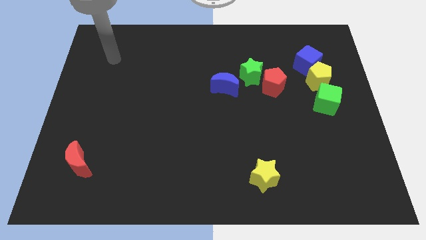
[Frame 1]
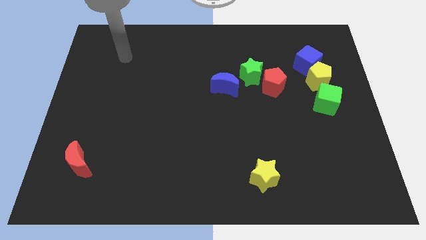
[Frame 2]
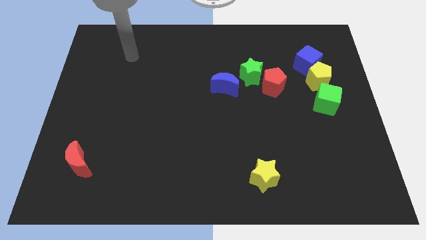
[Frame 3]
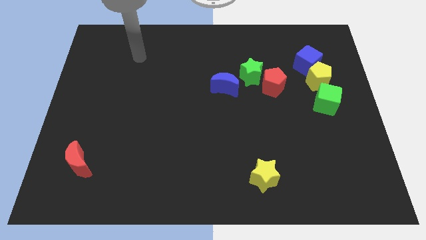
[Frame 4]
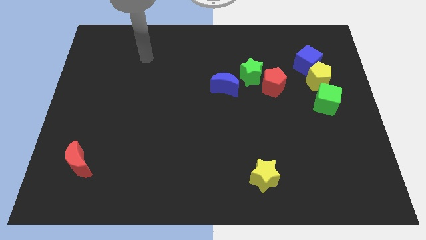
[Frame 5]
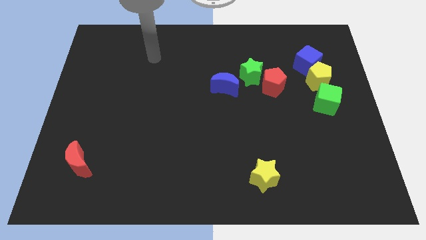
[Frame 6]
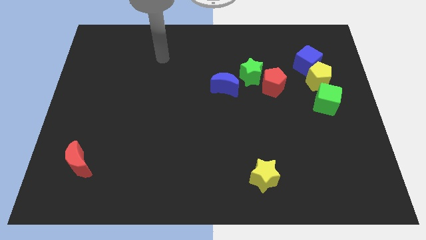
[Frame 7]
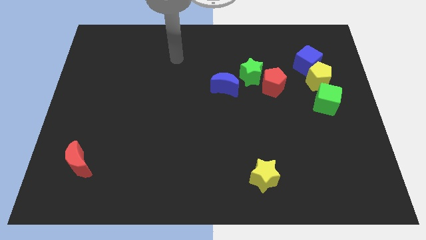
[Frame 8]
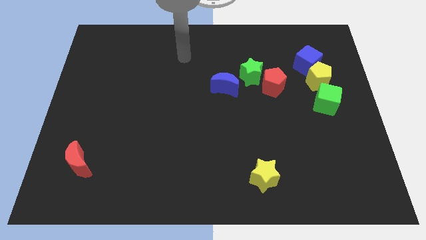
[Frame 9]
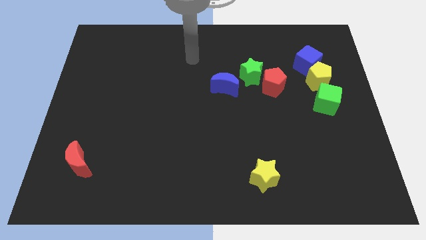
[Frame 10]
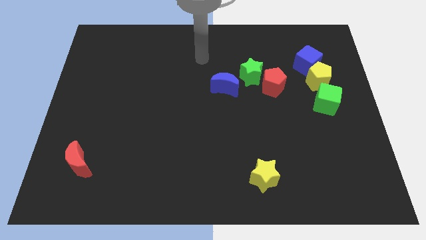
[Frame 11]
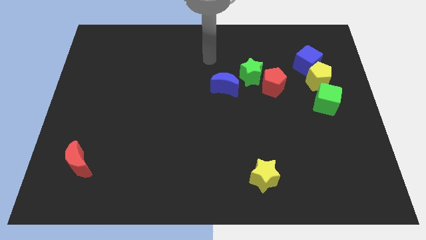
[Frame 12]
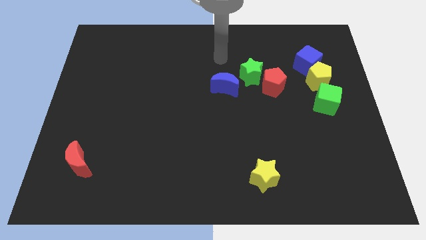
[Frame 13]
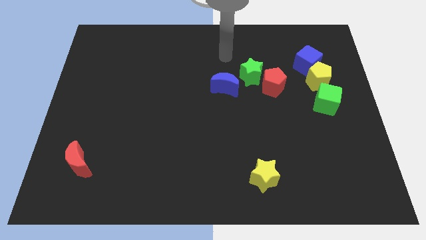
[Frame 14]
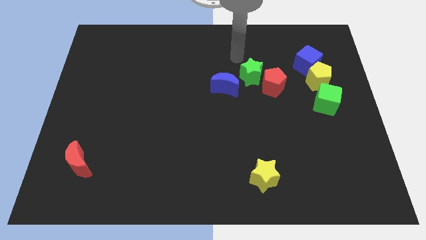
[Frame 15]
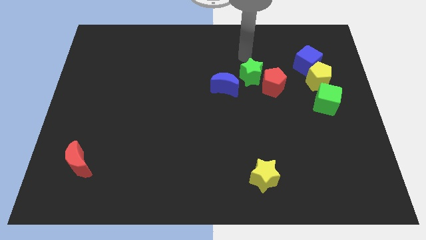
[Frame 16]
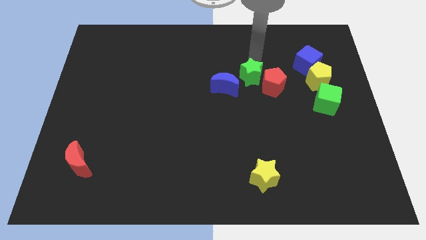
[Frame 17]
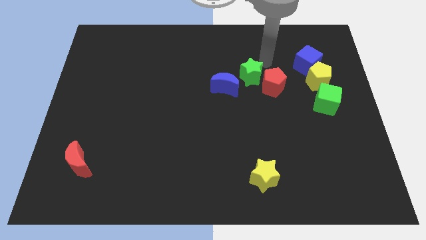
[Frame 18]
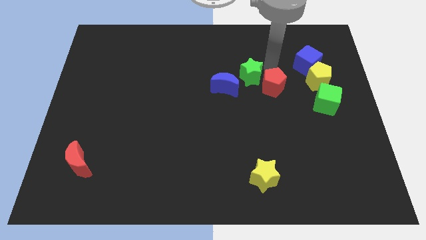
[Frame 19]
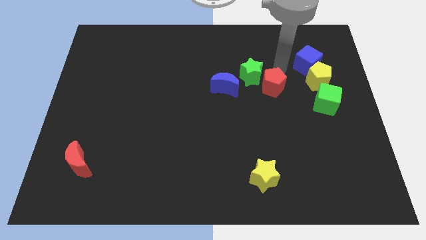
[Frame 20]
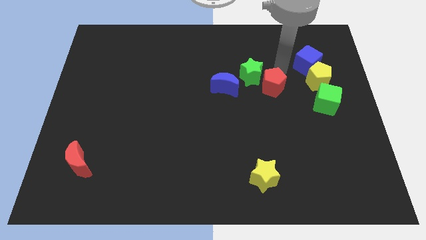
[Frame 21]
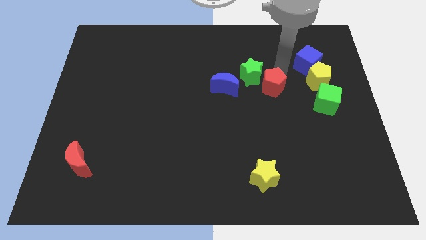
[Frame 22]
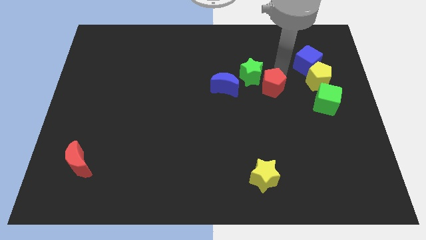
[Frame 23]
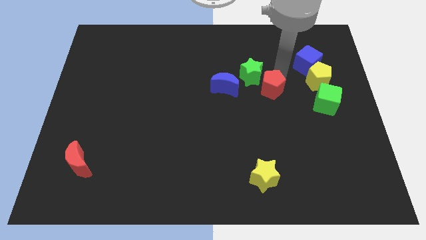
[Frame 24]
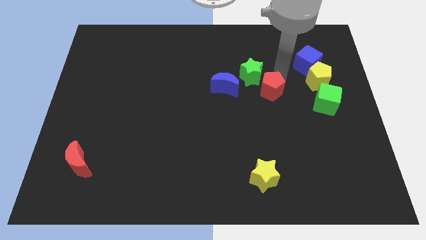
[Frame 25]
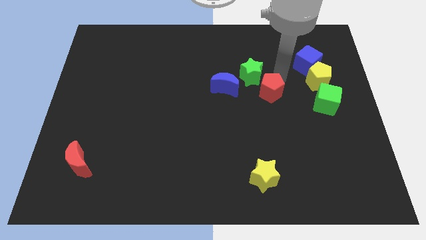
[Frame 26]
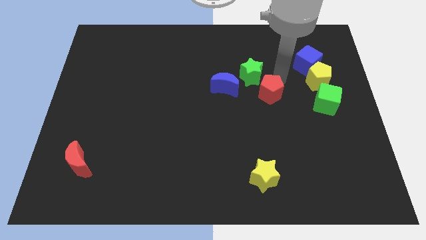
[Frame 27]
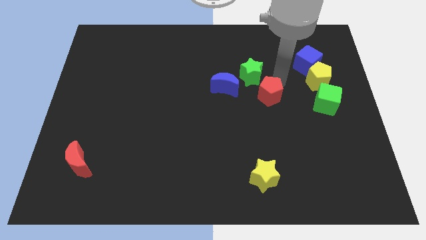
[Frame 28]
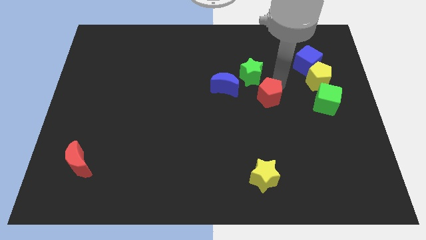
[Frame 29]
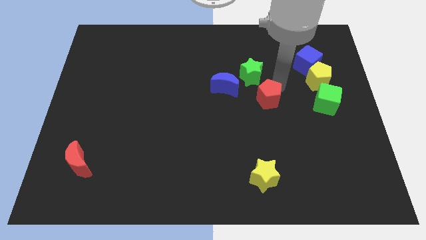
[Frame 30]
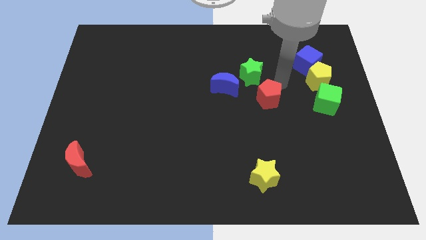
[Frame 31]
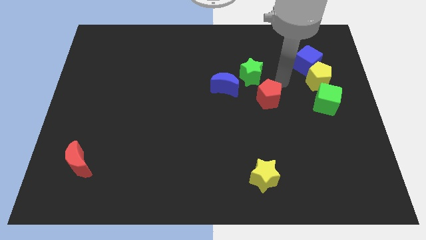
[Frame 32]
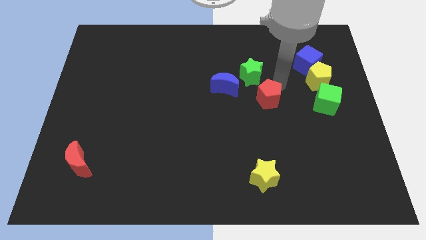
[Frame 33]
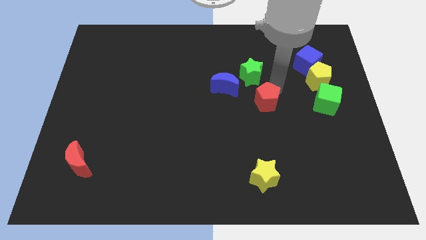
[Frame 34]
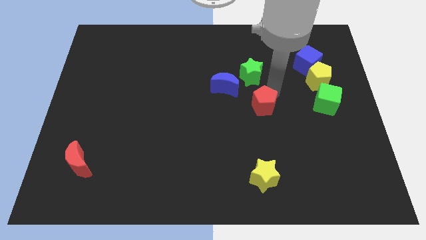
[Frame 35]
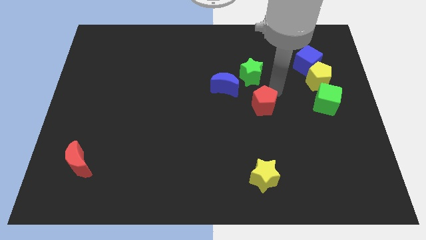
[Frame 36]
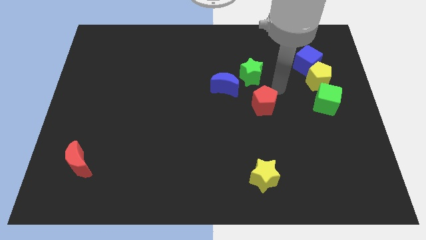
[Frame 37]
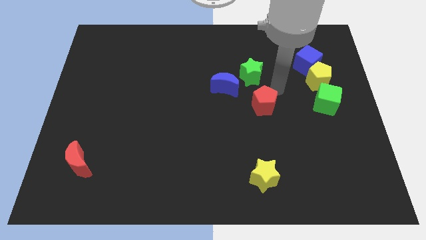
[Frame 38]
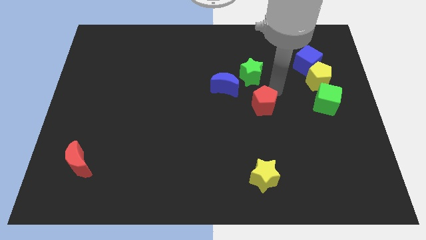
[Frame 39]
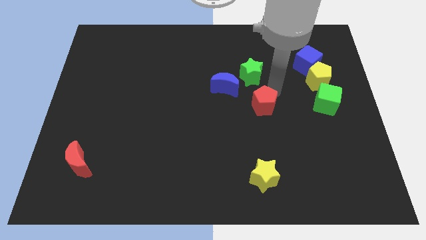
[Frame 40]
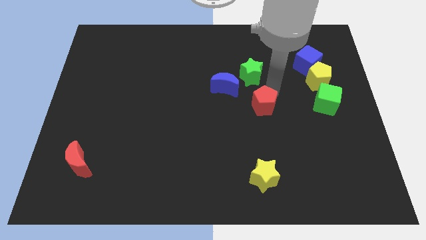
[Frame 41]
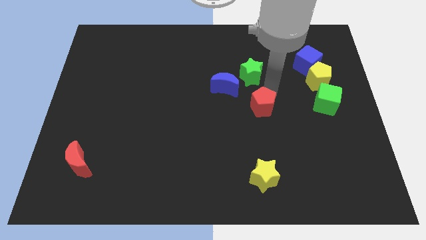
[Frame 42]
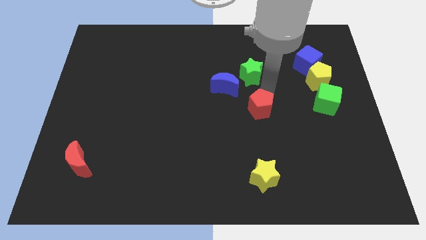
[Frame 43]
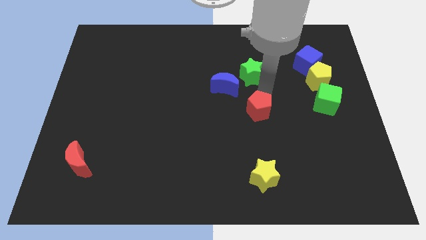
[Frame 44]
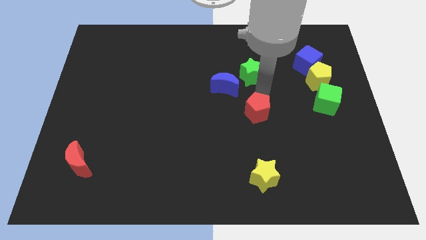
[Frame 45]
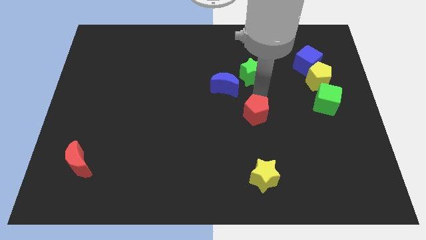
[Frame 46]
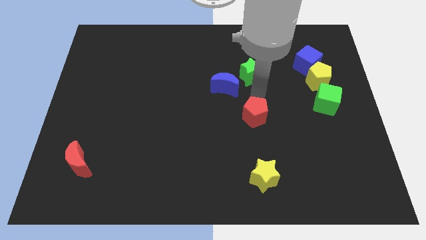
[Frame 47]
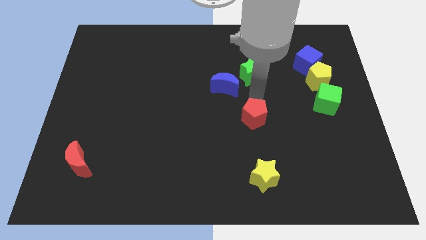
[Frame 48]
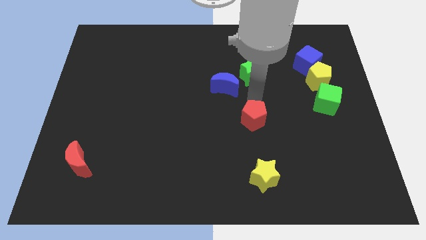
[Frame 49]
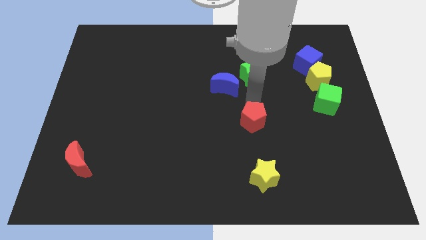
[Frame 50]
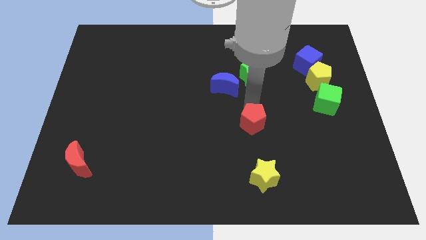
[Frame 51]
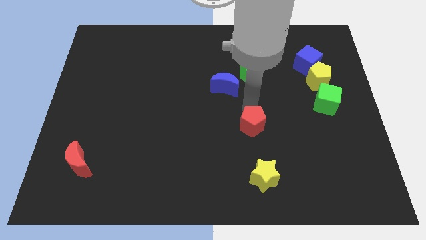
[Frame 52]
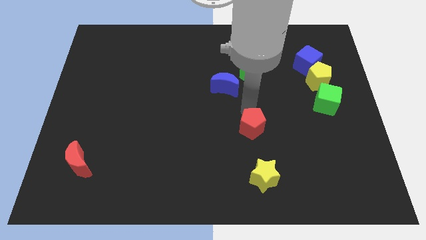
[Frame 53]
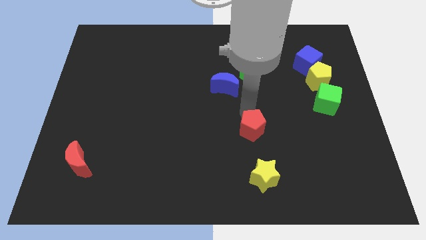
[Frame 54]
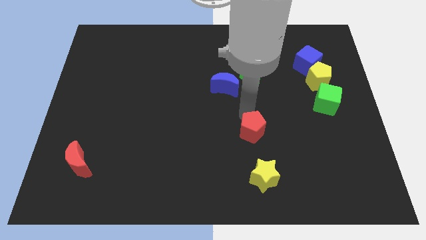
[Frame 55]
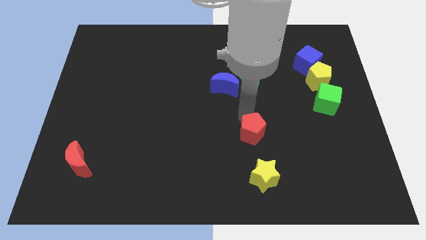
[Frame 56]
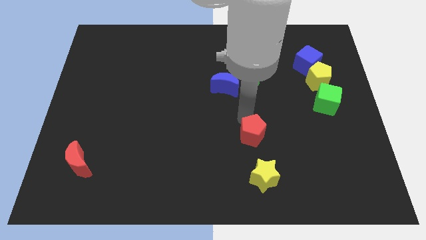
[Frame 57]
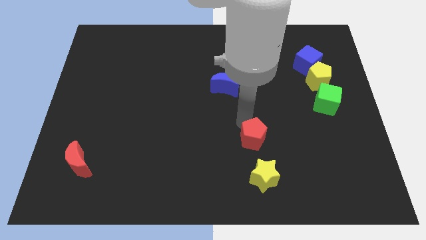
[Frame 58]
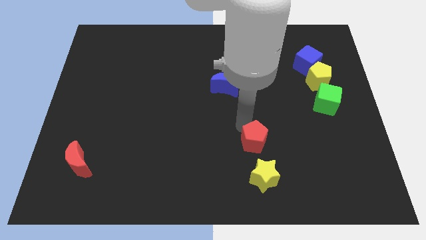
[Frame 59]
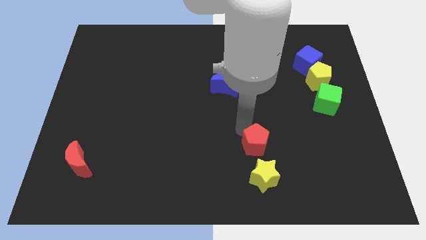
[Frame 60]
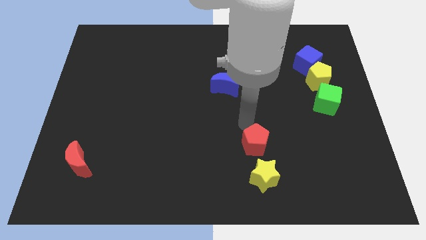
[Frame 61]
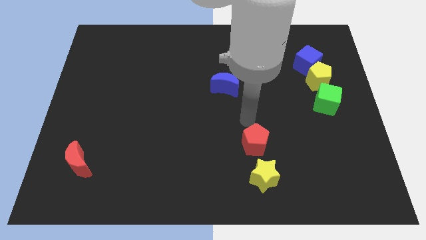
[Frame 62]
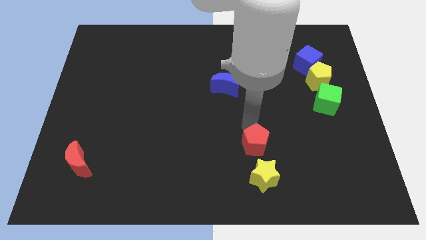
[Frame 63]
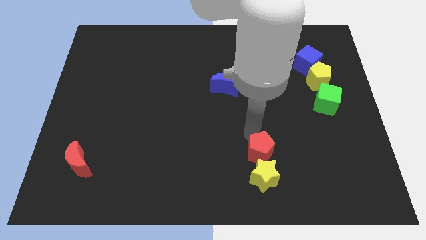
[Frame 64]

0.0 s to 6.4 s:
move the red pentagon to the yellow star

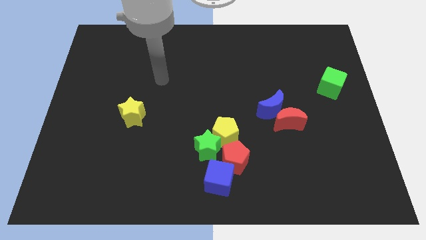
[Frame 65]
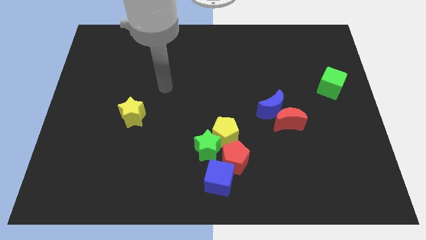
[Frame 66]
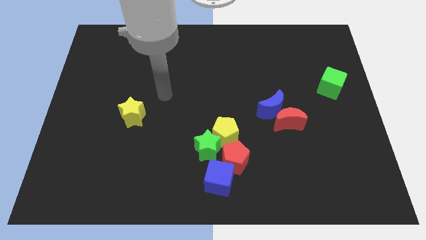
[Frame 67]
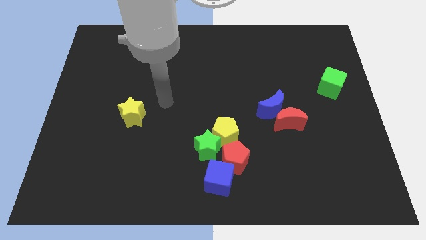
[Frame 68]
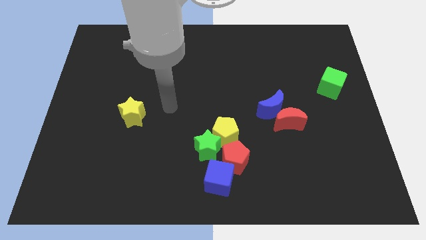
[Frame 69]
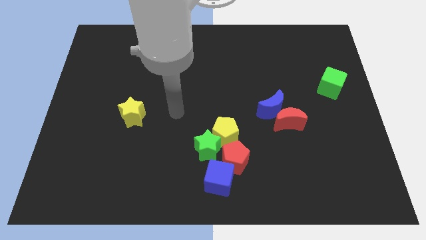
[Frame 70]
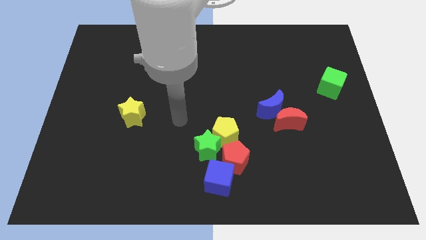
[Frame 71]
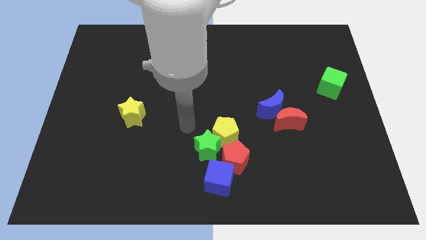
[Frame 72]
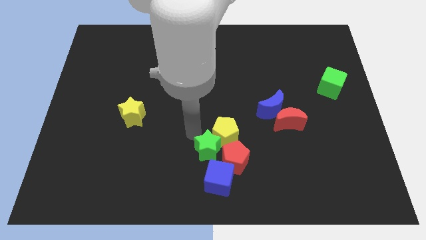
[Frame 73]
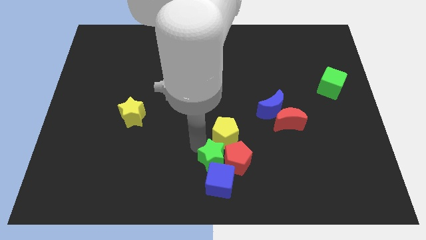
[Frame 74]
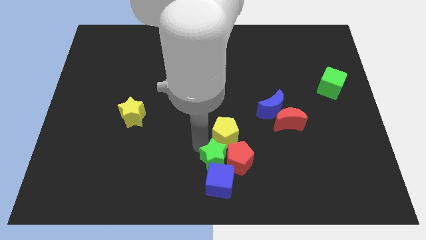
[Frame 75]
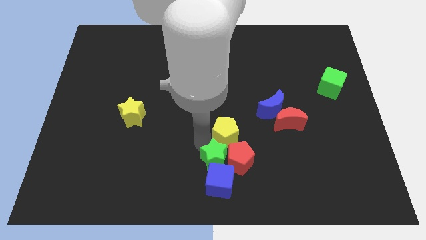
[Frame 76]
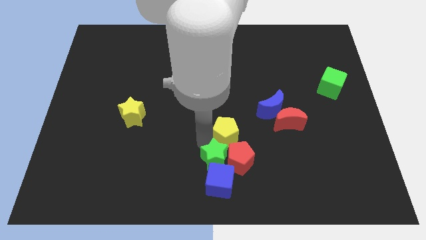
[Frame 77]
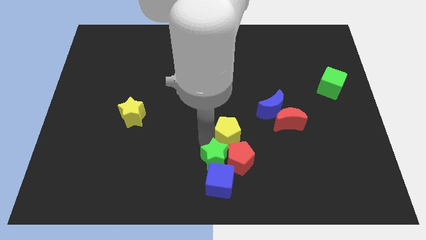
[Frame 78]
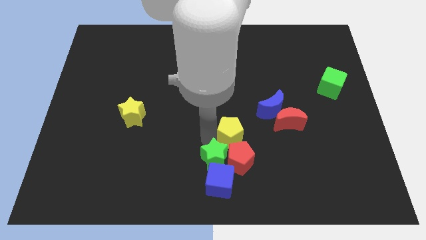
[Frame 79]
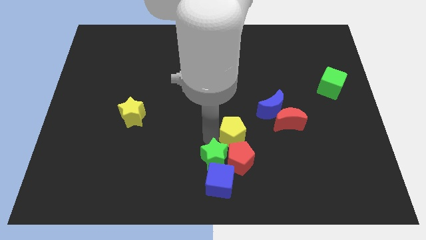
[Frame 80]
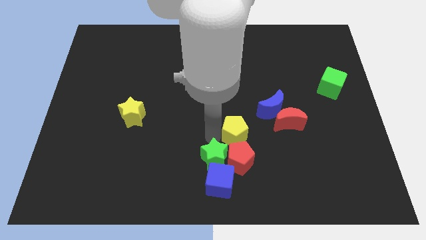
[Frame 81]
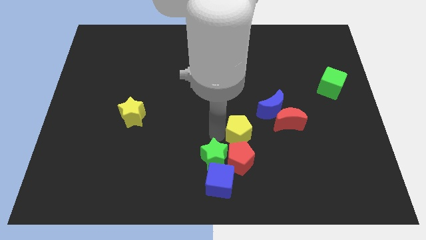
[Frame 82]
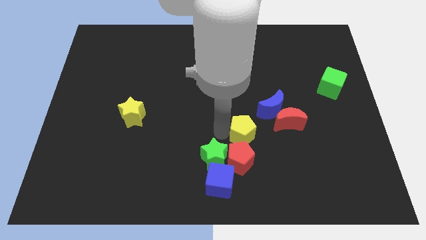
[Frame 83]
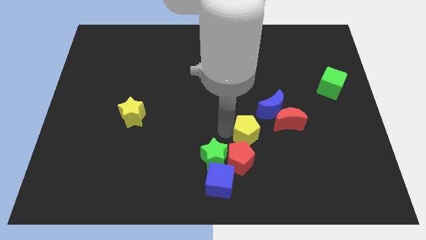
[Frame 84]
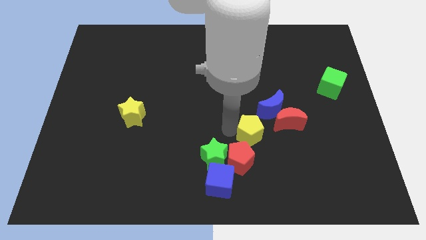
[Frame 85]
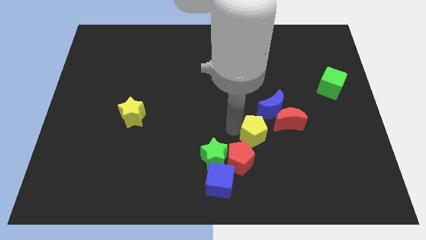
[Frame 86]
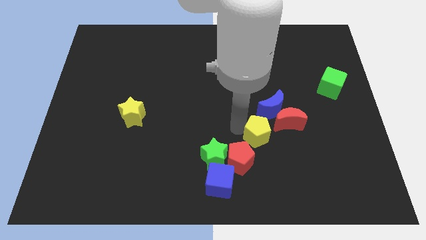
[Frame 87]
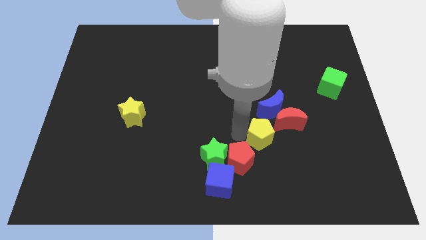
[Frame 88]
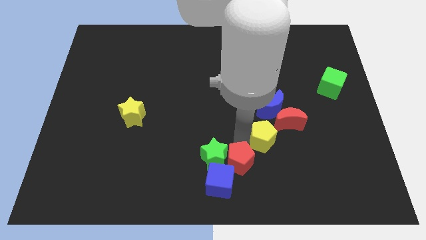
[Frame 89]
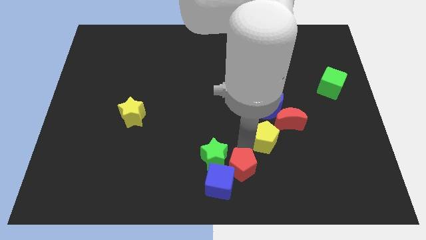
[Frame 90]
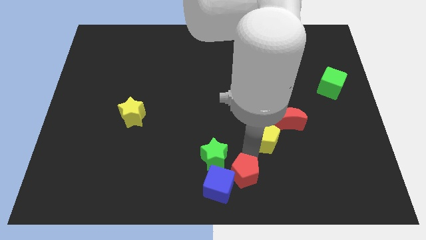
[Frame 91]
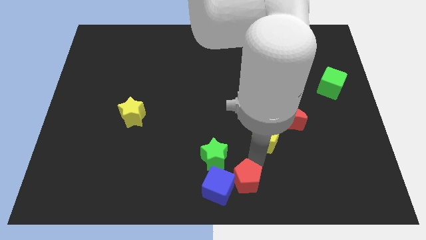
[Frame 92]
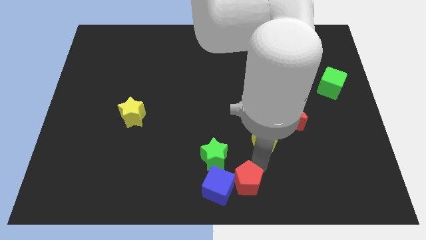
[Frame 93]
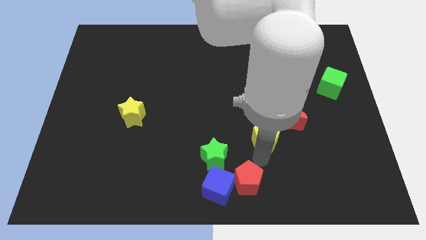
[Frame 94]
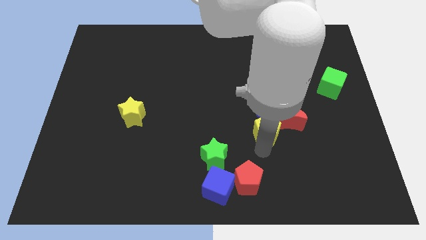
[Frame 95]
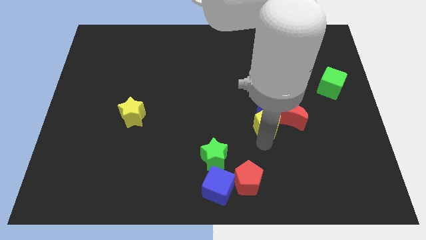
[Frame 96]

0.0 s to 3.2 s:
push the yellow pentagon next to the blue moon
